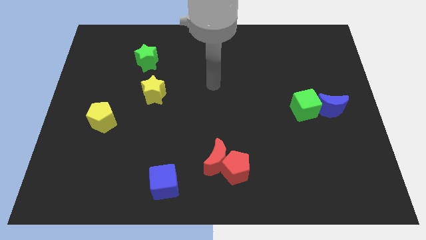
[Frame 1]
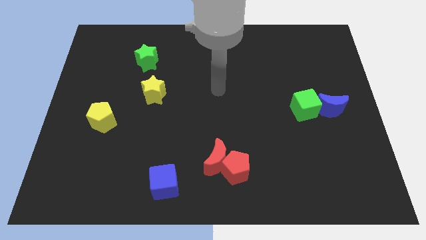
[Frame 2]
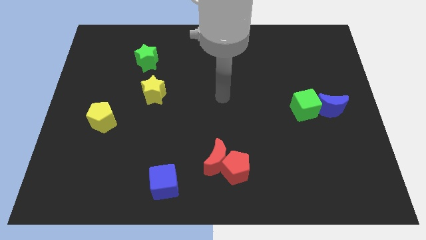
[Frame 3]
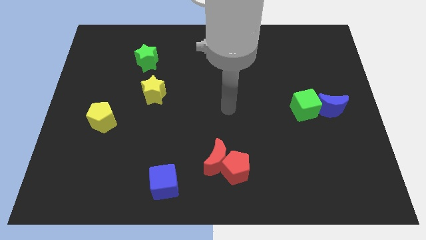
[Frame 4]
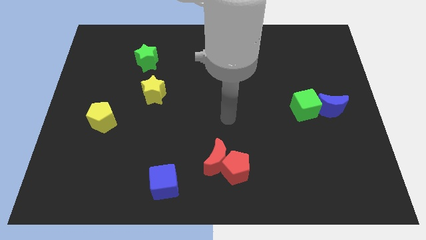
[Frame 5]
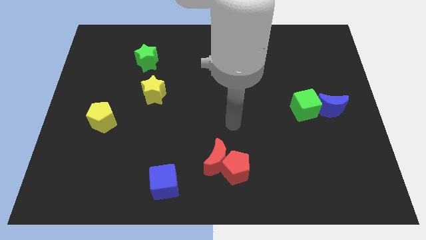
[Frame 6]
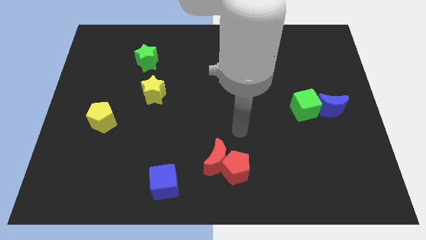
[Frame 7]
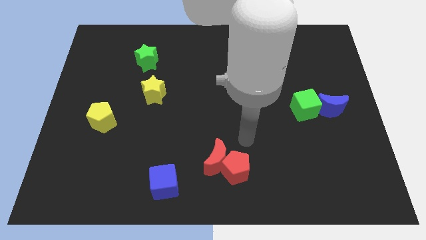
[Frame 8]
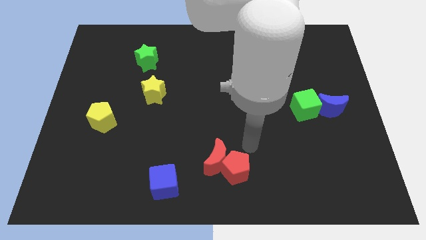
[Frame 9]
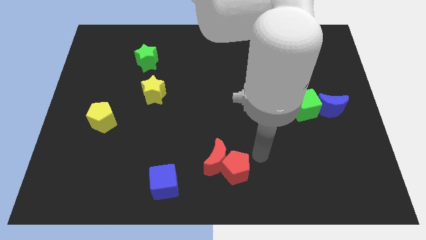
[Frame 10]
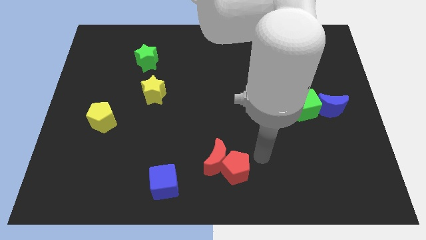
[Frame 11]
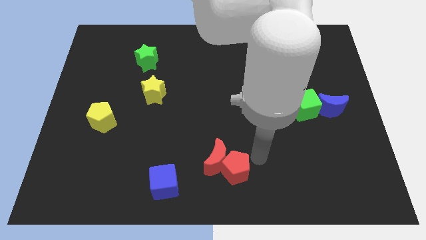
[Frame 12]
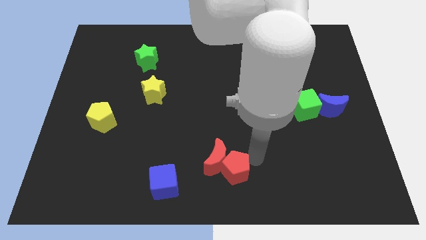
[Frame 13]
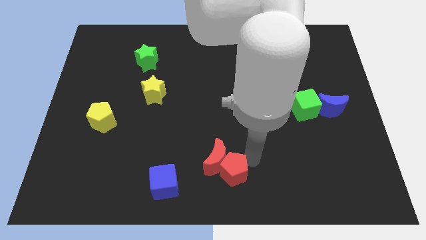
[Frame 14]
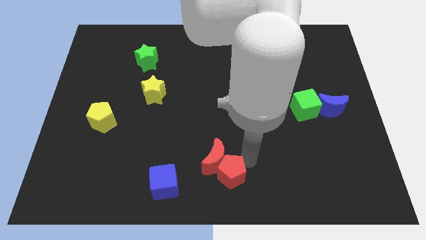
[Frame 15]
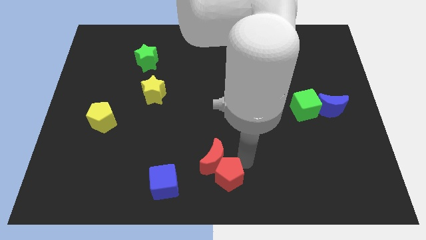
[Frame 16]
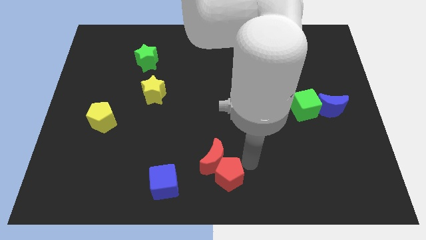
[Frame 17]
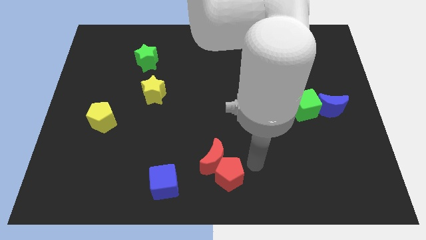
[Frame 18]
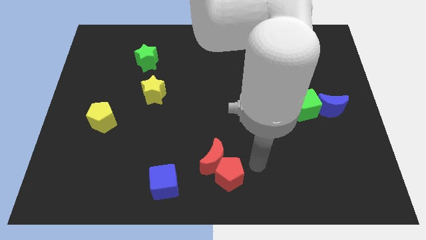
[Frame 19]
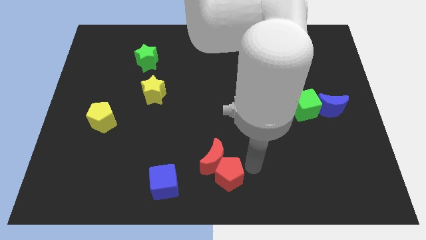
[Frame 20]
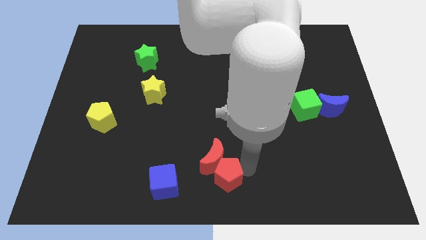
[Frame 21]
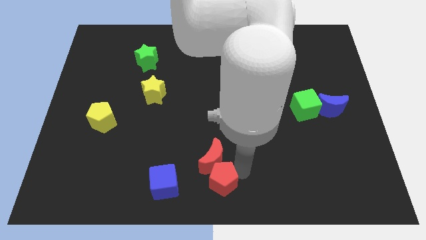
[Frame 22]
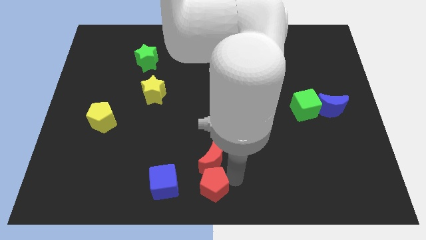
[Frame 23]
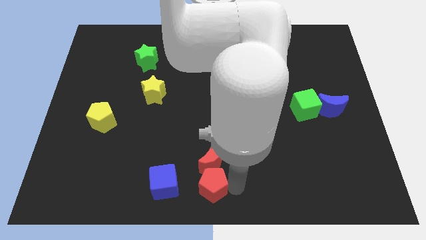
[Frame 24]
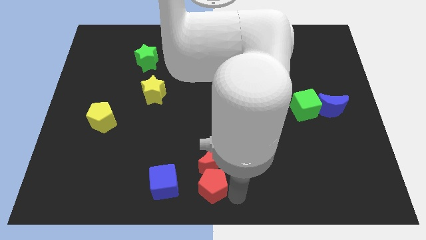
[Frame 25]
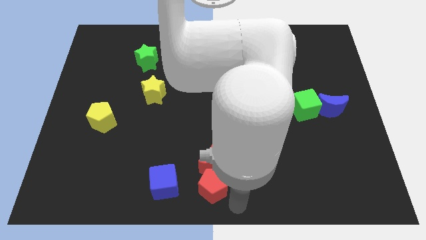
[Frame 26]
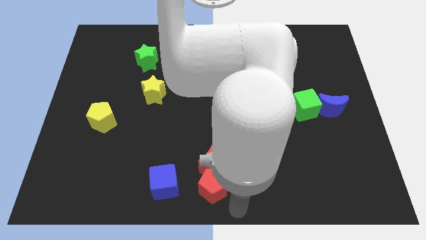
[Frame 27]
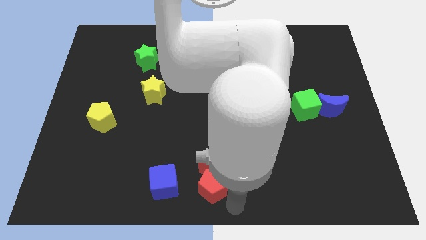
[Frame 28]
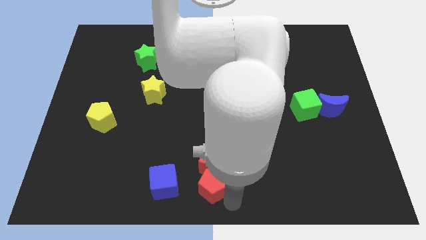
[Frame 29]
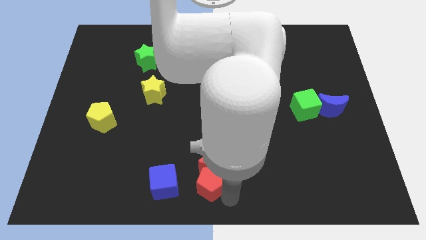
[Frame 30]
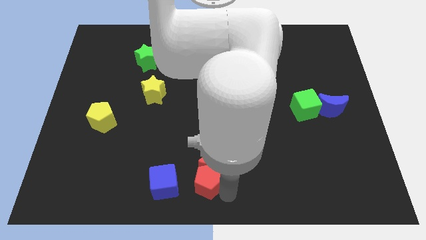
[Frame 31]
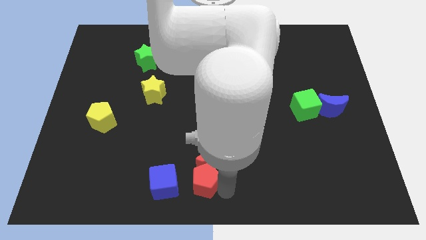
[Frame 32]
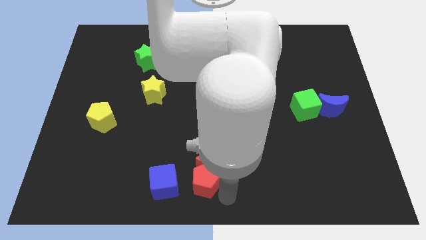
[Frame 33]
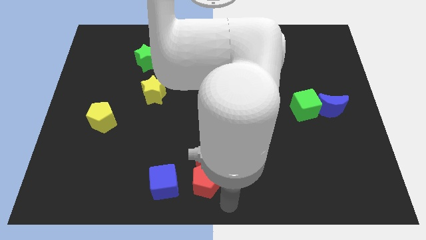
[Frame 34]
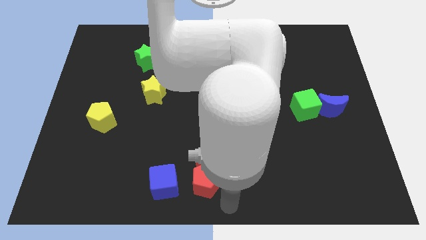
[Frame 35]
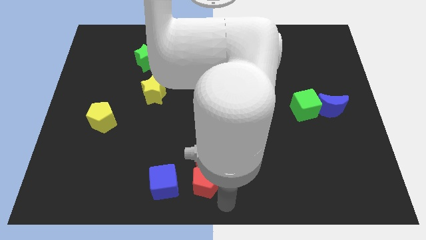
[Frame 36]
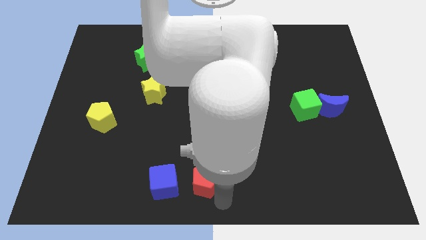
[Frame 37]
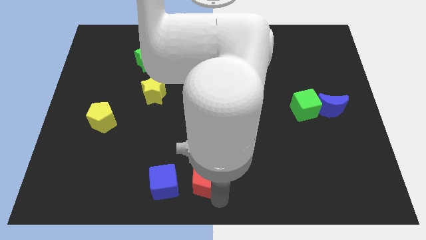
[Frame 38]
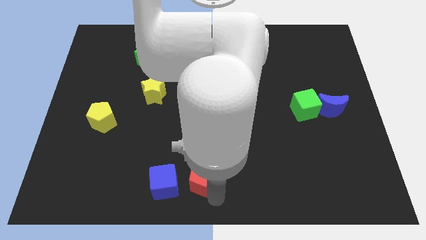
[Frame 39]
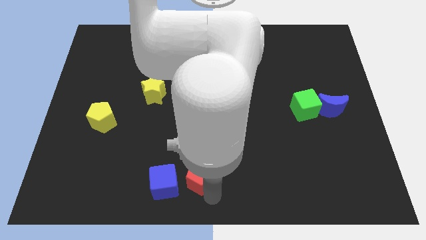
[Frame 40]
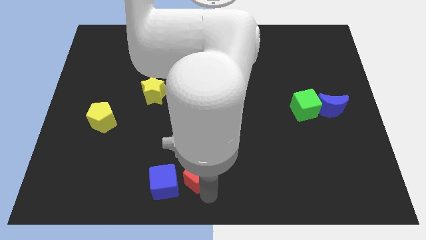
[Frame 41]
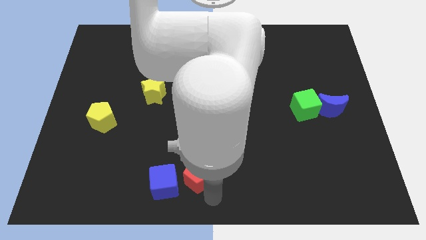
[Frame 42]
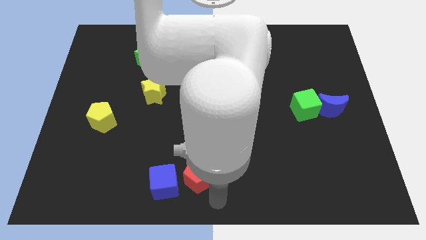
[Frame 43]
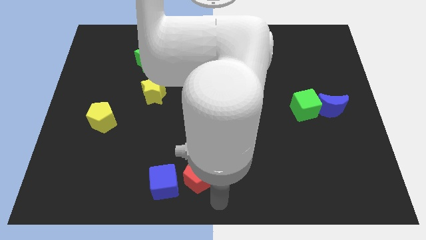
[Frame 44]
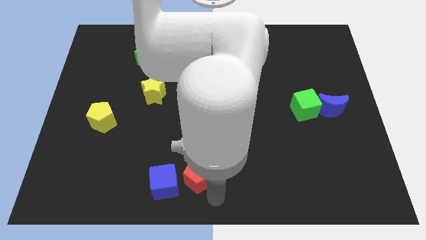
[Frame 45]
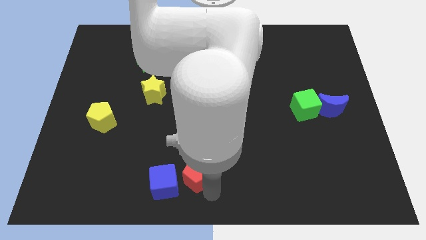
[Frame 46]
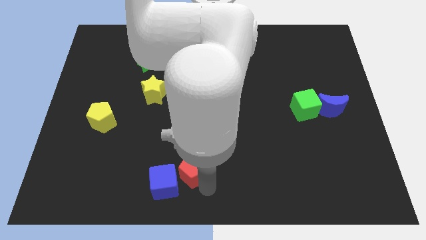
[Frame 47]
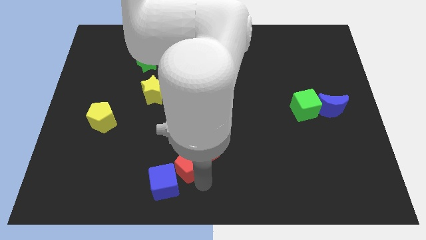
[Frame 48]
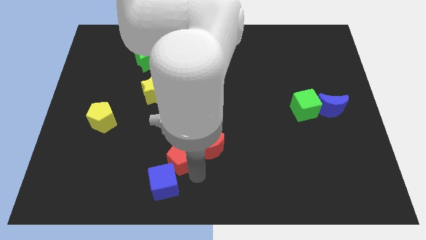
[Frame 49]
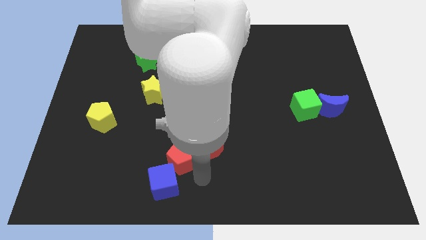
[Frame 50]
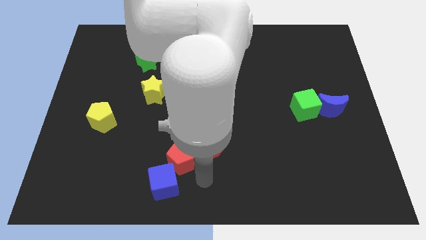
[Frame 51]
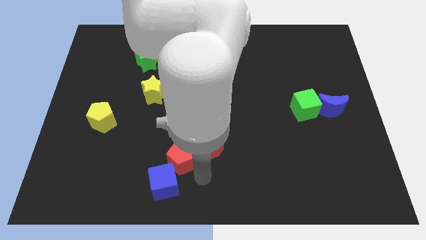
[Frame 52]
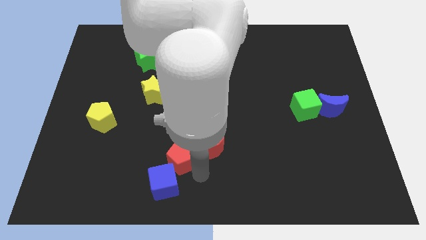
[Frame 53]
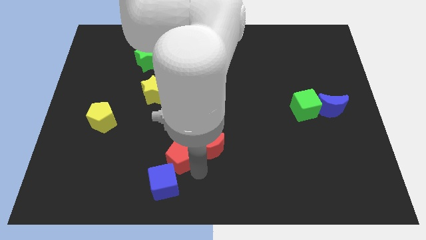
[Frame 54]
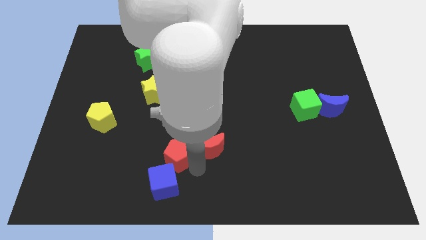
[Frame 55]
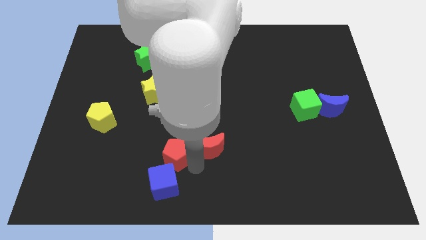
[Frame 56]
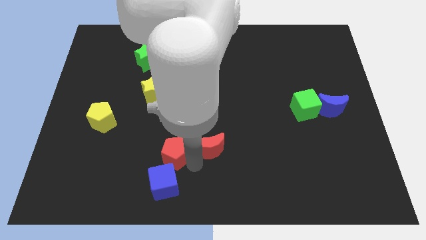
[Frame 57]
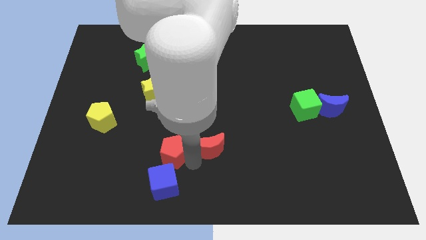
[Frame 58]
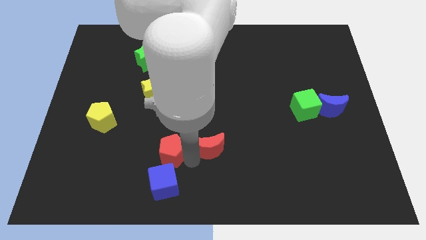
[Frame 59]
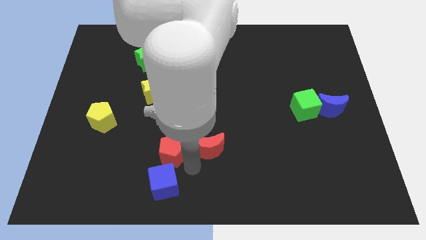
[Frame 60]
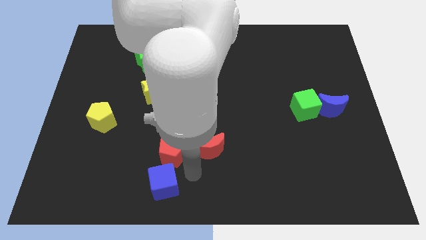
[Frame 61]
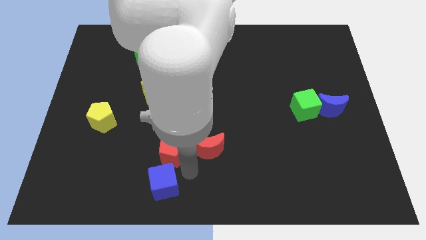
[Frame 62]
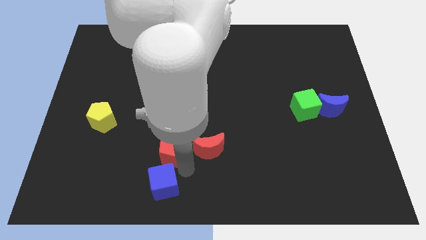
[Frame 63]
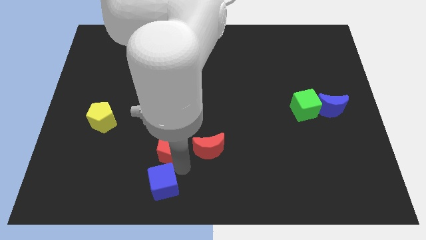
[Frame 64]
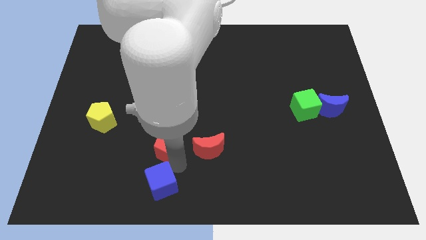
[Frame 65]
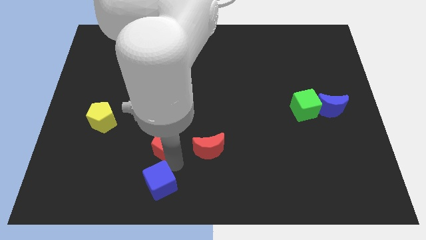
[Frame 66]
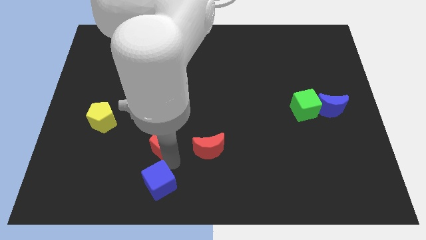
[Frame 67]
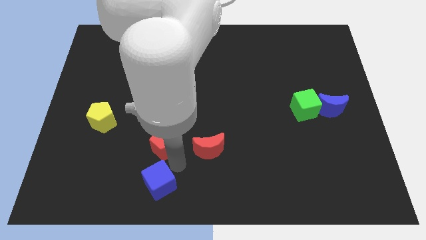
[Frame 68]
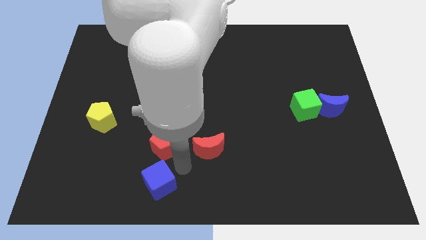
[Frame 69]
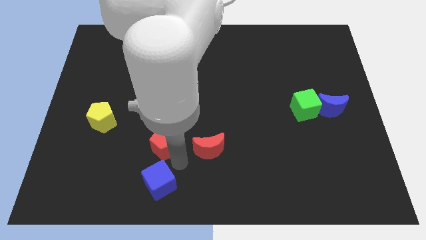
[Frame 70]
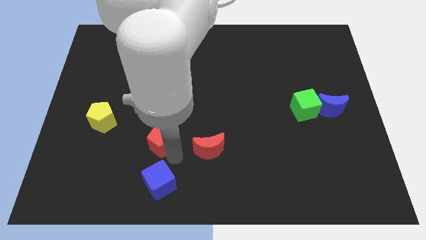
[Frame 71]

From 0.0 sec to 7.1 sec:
push the red pentagon to the bottom side of the yellow star
